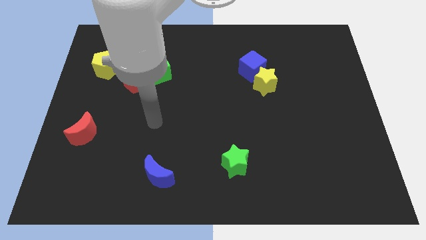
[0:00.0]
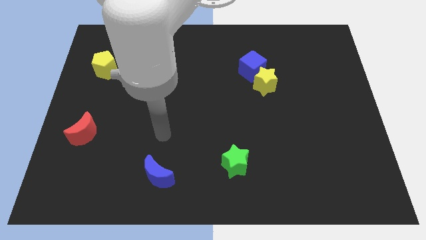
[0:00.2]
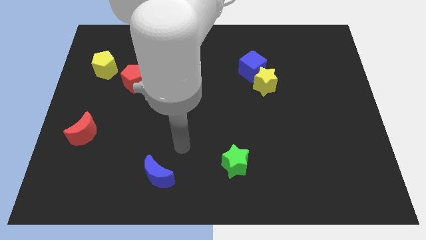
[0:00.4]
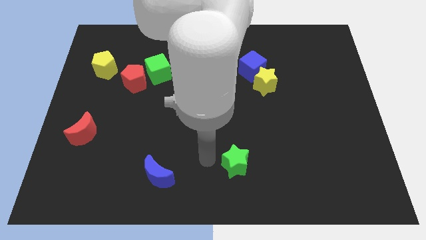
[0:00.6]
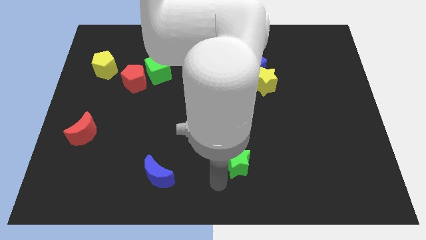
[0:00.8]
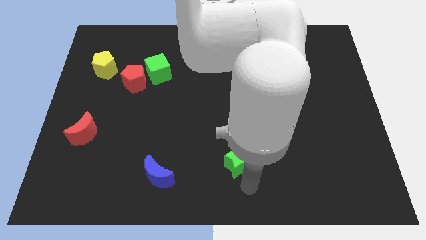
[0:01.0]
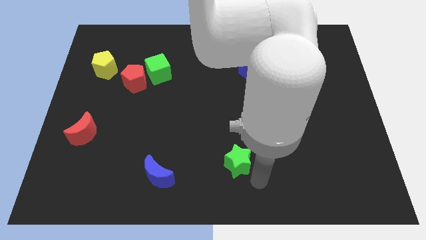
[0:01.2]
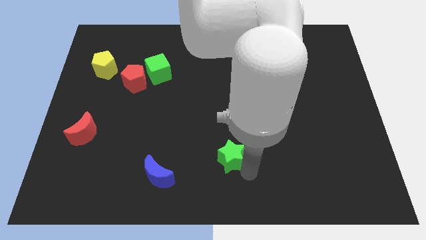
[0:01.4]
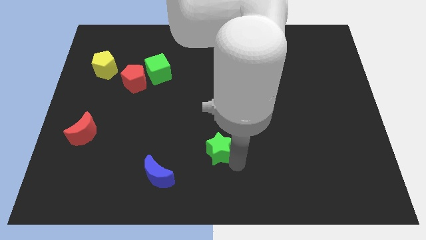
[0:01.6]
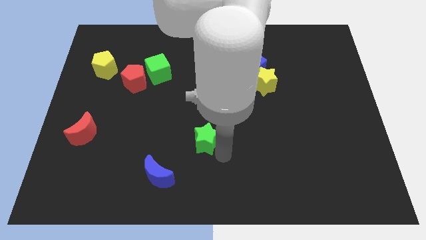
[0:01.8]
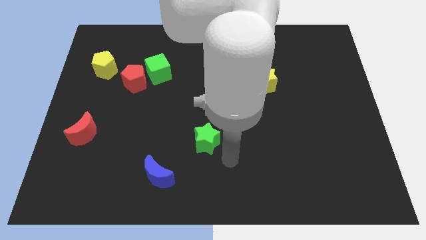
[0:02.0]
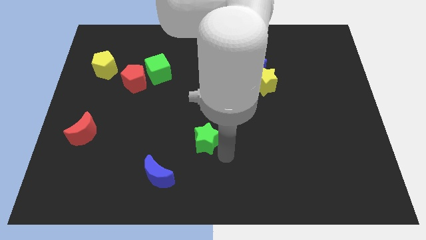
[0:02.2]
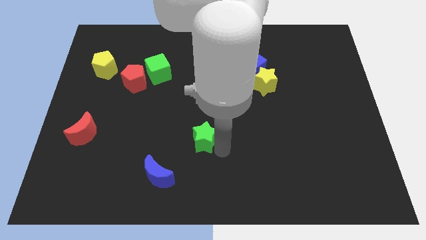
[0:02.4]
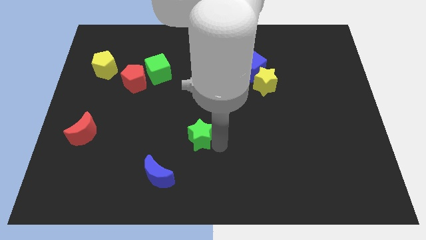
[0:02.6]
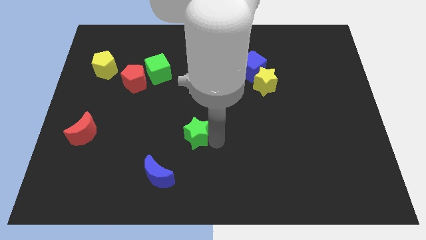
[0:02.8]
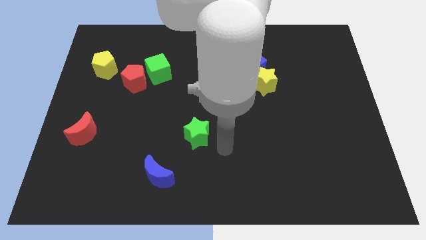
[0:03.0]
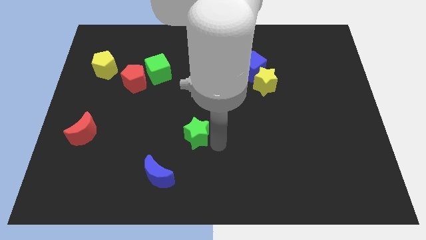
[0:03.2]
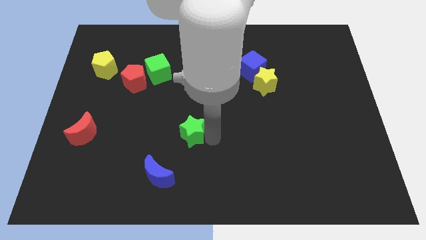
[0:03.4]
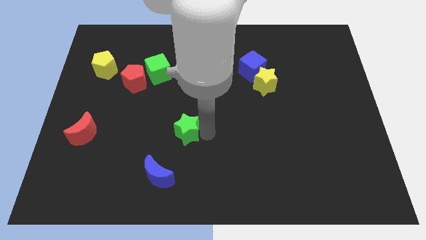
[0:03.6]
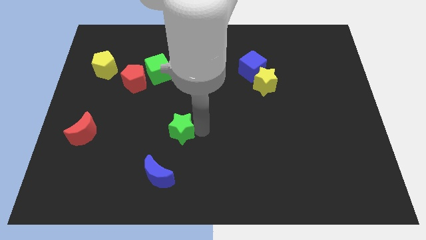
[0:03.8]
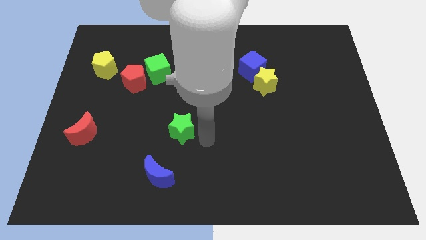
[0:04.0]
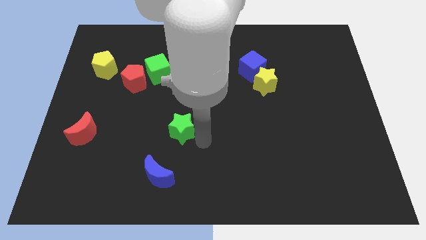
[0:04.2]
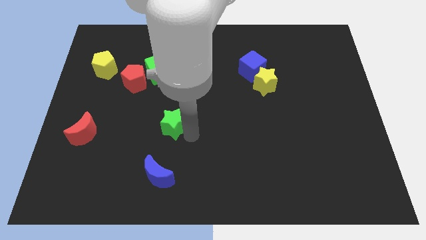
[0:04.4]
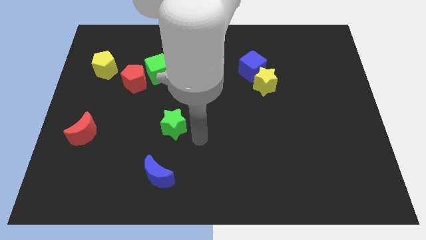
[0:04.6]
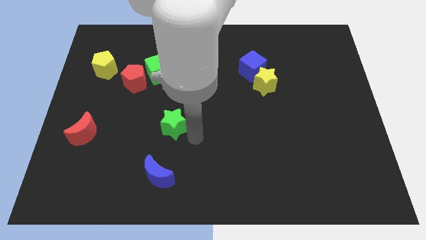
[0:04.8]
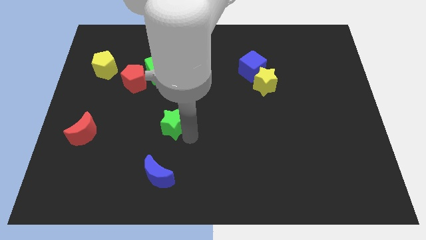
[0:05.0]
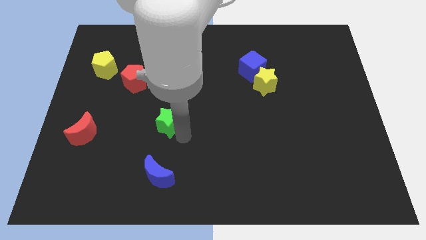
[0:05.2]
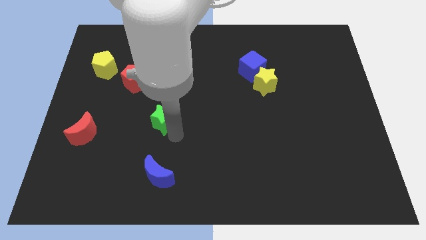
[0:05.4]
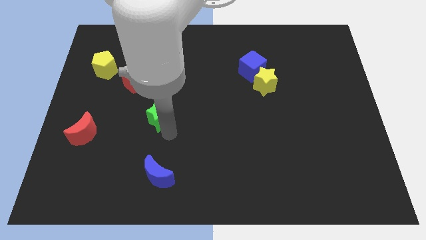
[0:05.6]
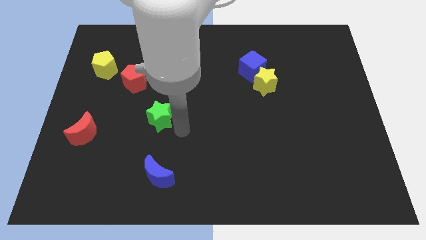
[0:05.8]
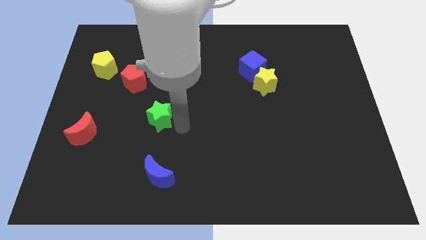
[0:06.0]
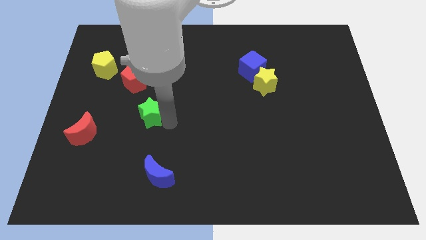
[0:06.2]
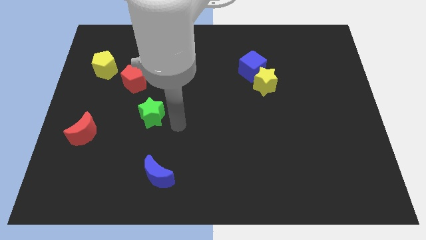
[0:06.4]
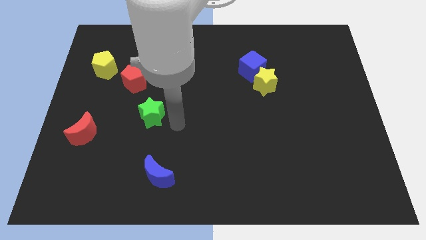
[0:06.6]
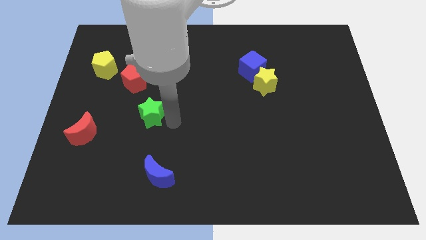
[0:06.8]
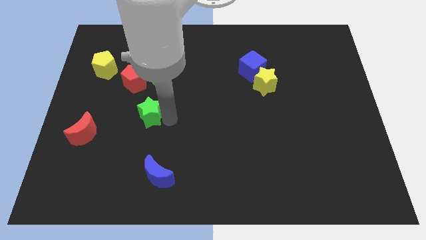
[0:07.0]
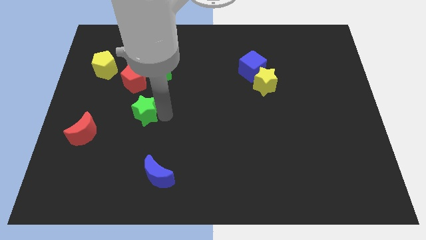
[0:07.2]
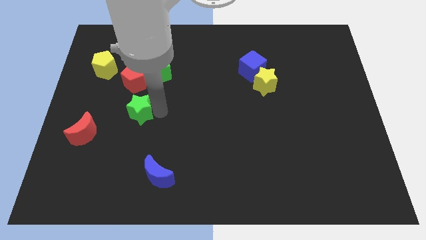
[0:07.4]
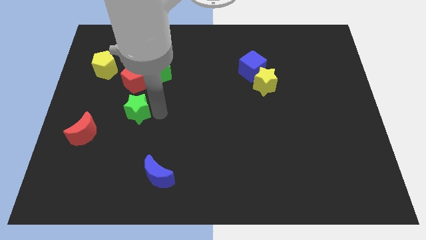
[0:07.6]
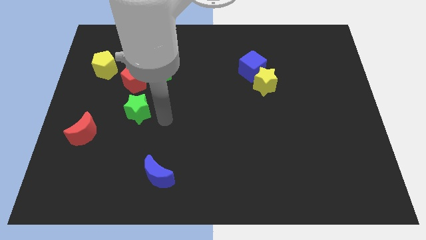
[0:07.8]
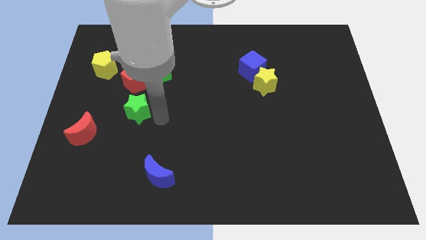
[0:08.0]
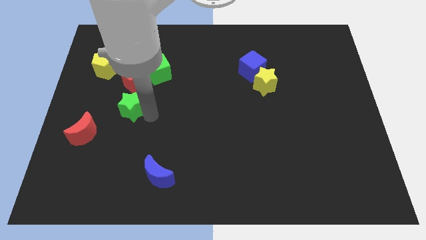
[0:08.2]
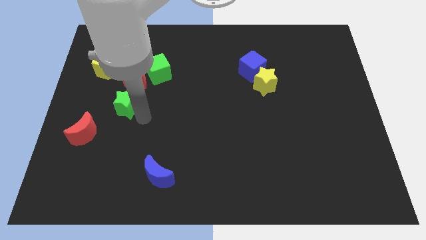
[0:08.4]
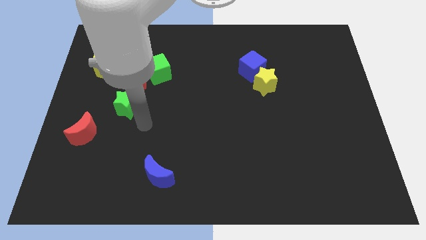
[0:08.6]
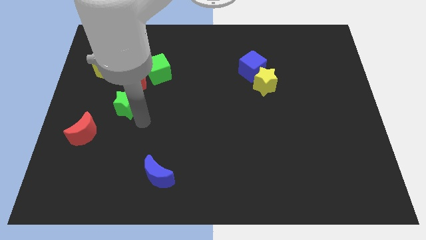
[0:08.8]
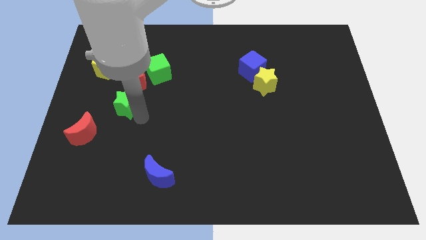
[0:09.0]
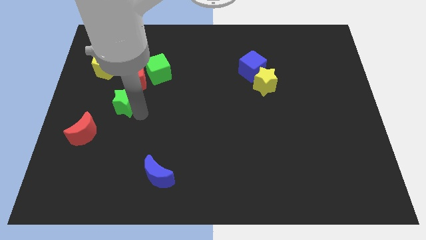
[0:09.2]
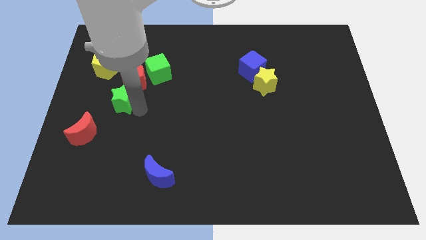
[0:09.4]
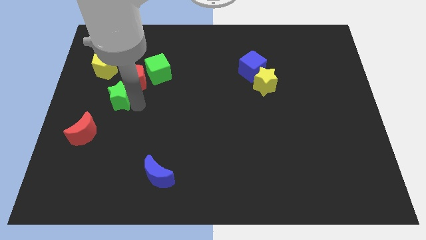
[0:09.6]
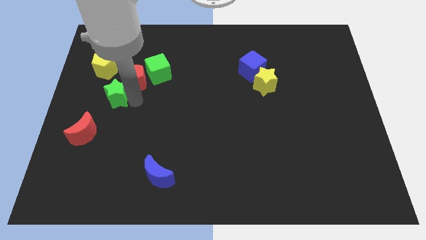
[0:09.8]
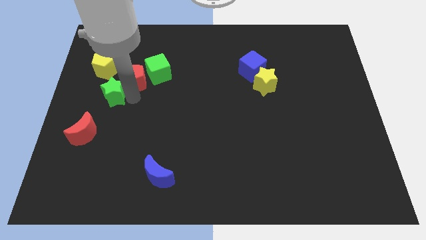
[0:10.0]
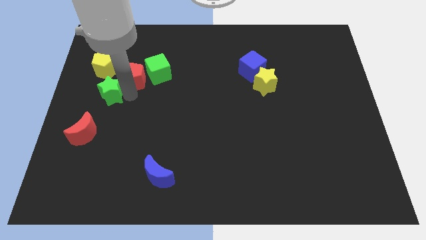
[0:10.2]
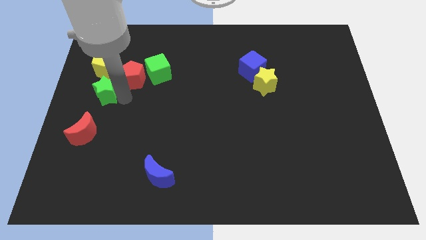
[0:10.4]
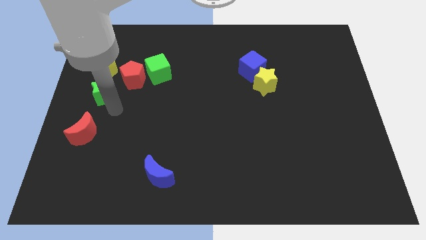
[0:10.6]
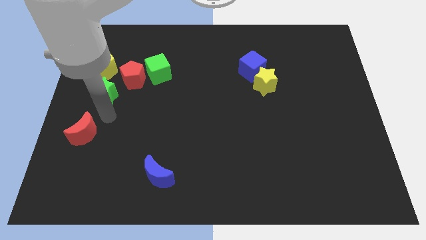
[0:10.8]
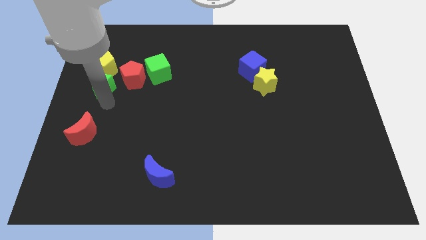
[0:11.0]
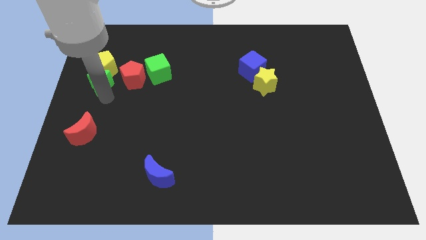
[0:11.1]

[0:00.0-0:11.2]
slide the green star to the yellow pentagon

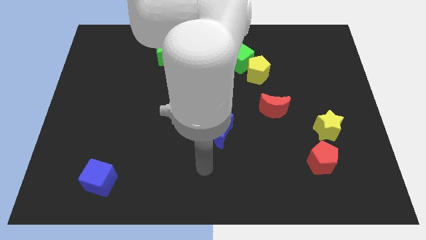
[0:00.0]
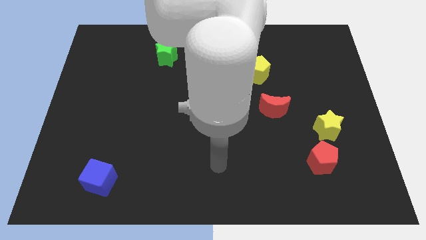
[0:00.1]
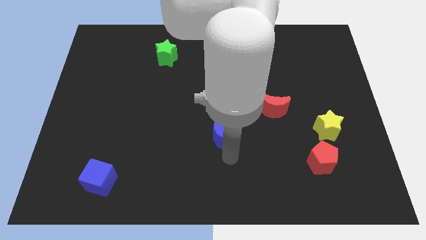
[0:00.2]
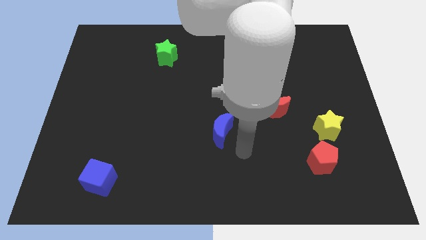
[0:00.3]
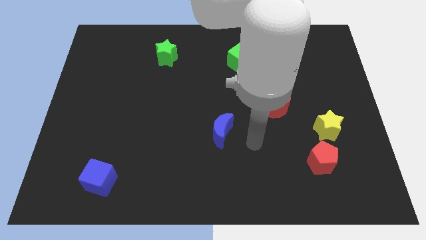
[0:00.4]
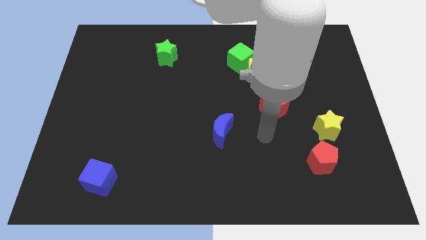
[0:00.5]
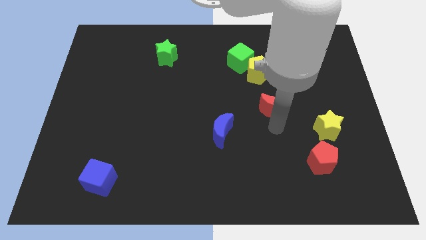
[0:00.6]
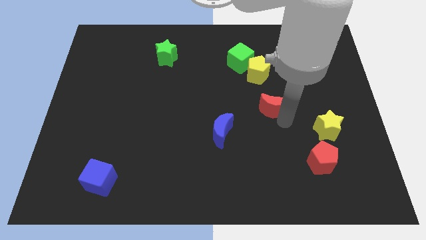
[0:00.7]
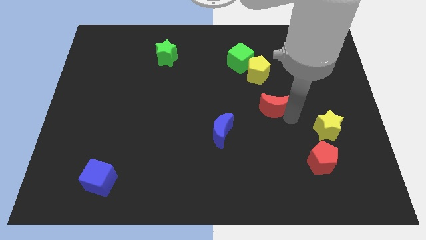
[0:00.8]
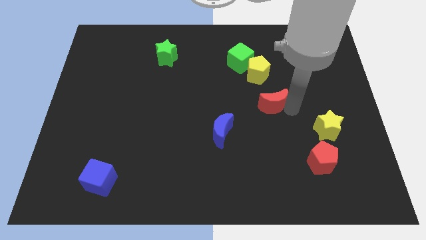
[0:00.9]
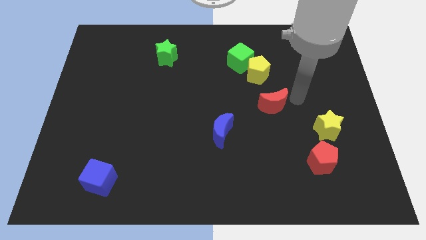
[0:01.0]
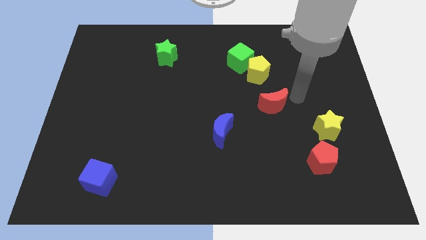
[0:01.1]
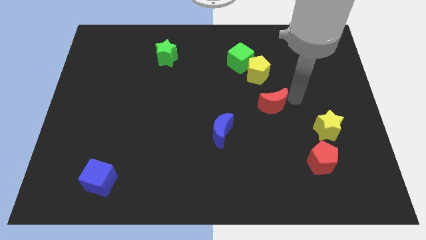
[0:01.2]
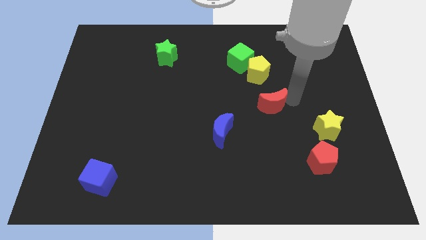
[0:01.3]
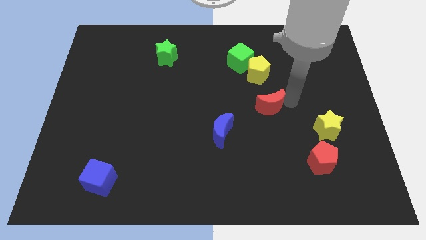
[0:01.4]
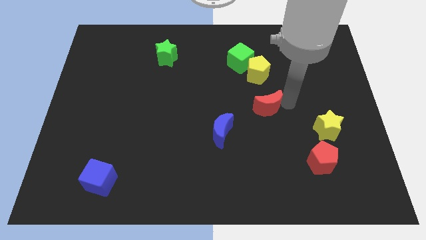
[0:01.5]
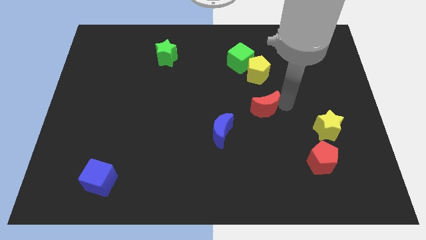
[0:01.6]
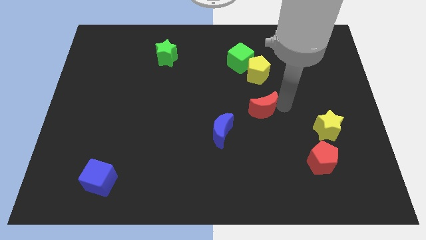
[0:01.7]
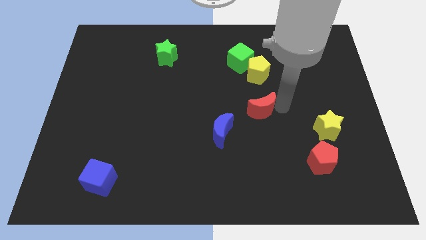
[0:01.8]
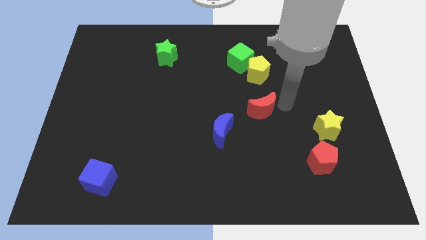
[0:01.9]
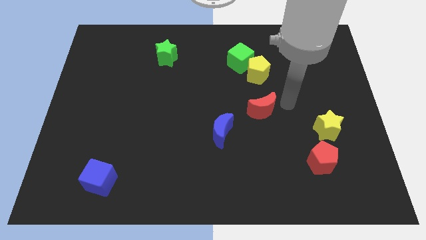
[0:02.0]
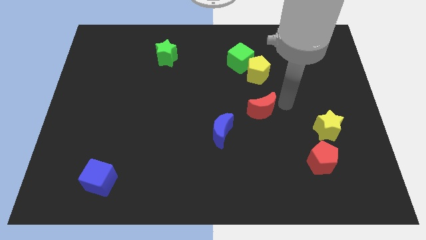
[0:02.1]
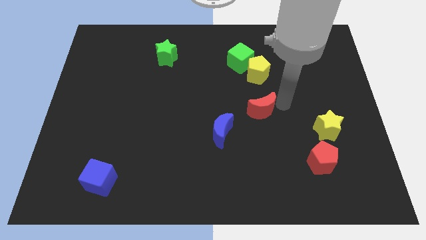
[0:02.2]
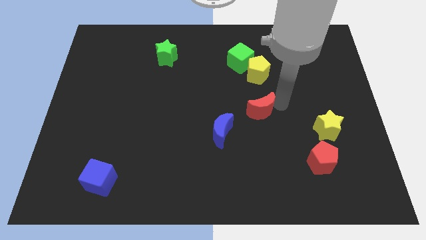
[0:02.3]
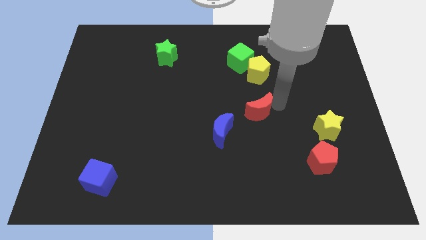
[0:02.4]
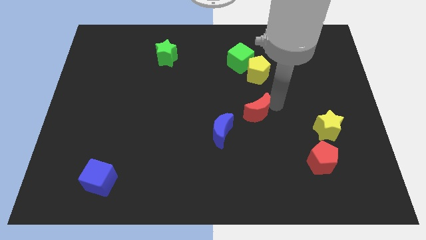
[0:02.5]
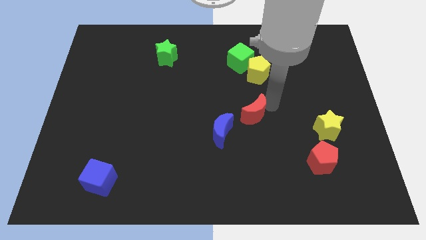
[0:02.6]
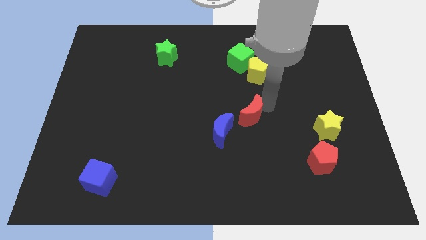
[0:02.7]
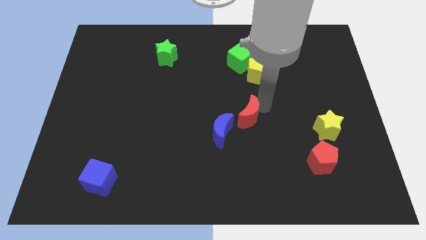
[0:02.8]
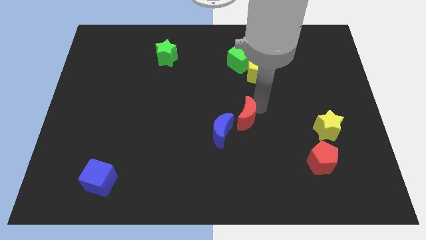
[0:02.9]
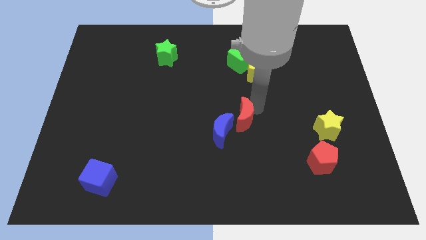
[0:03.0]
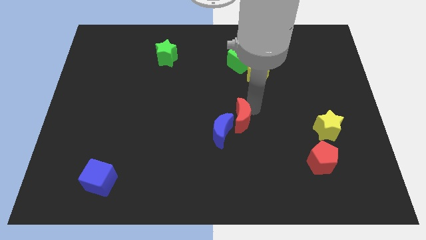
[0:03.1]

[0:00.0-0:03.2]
push the red moon to the blue moon
